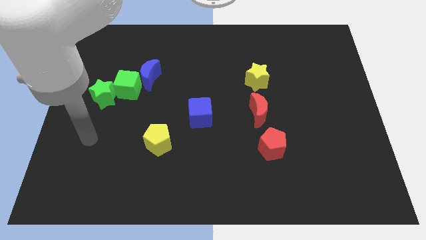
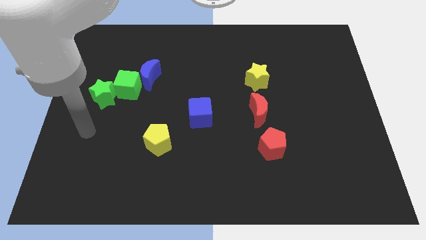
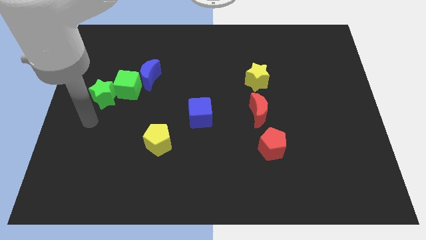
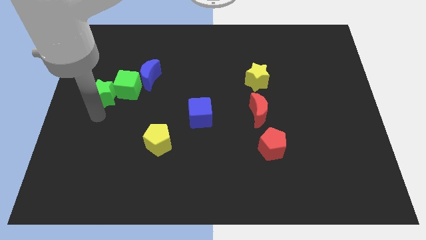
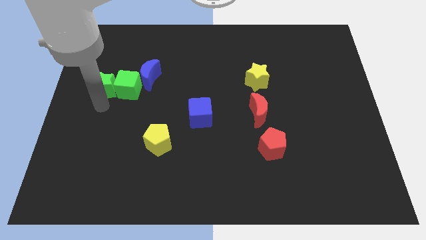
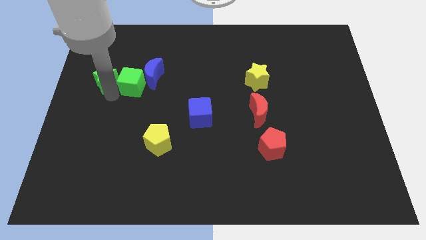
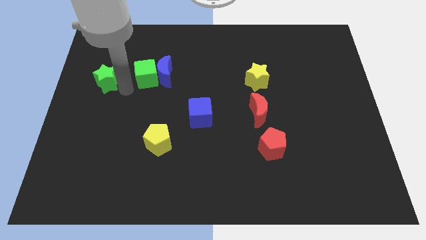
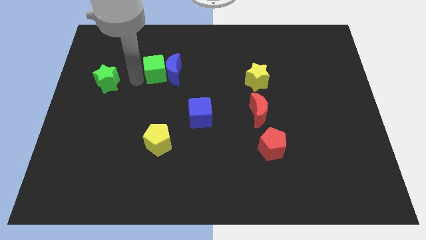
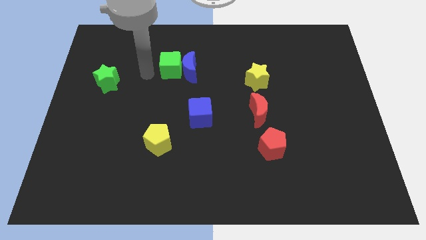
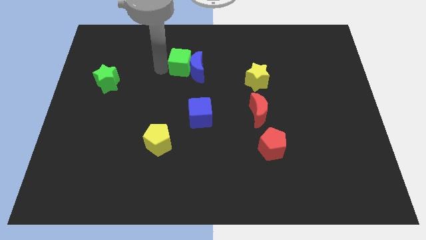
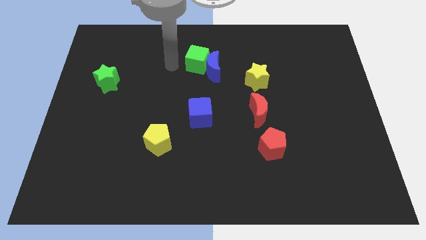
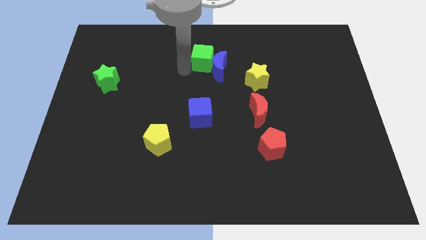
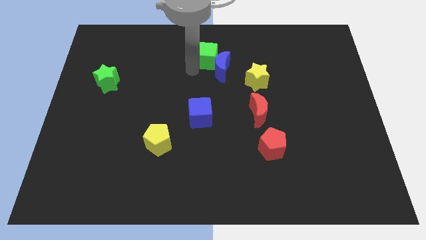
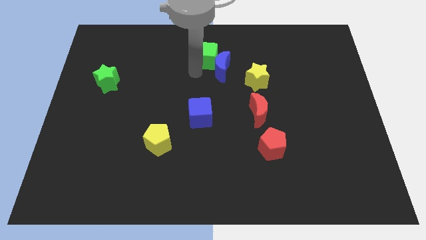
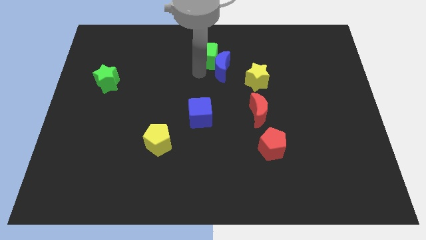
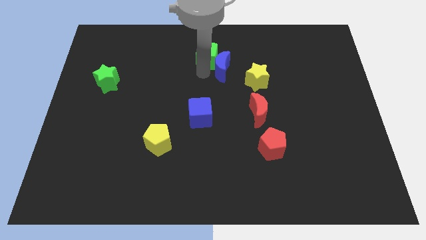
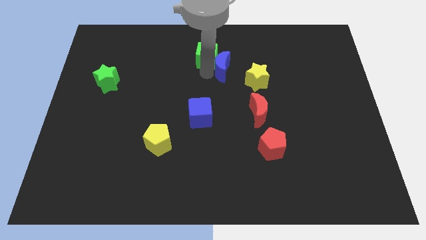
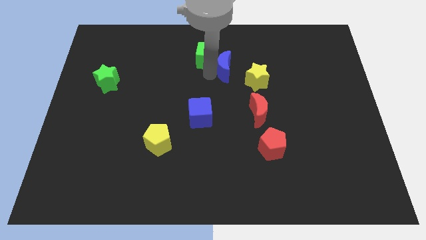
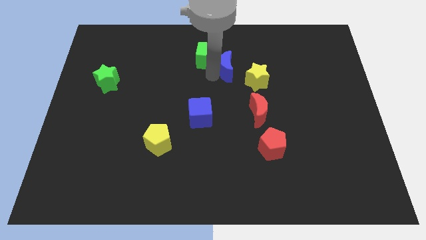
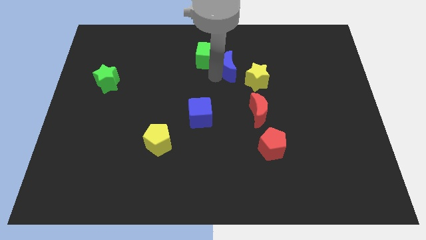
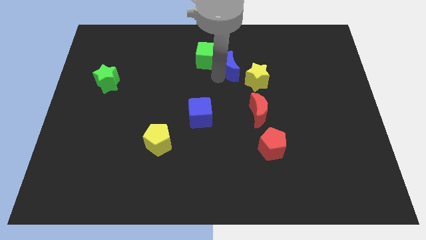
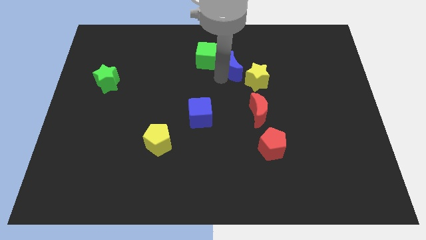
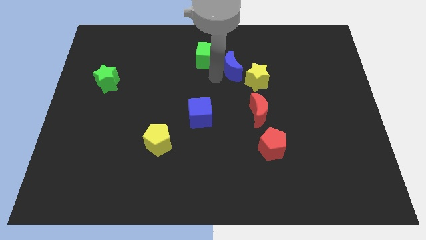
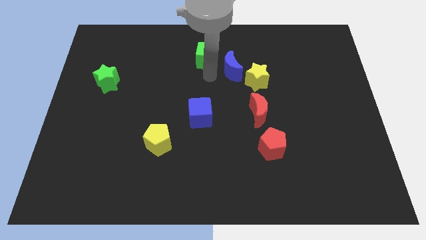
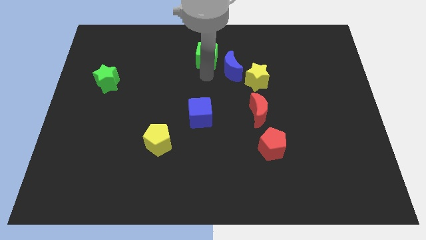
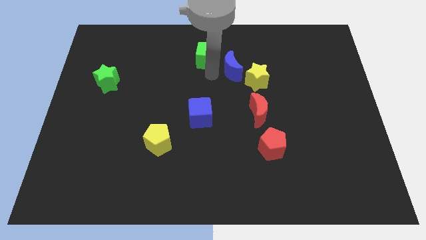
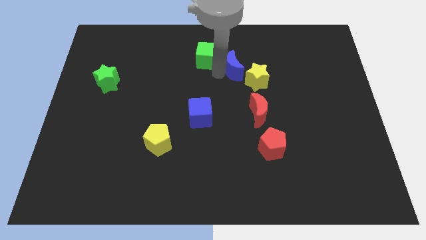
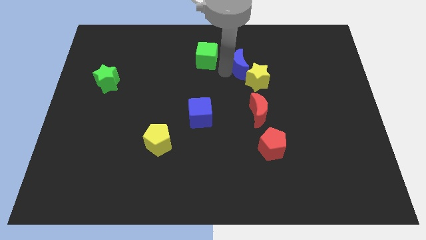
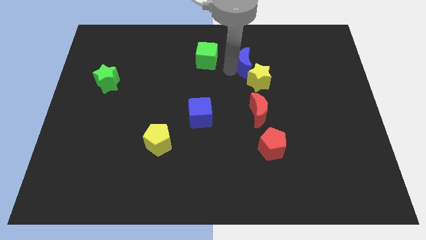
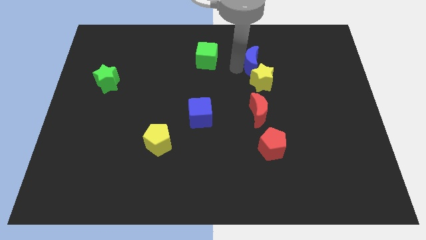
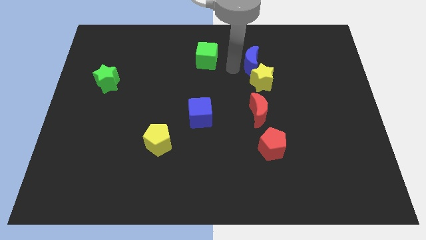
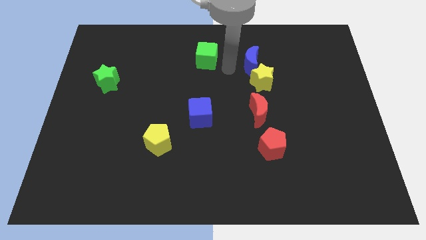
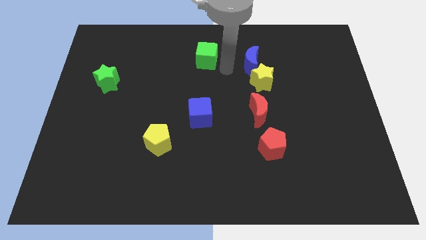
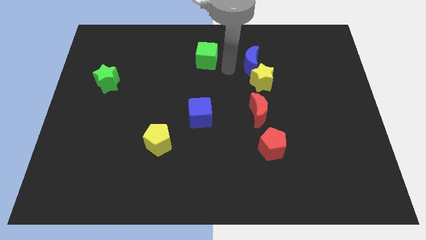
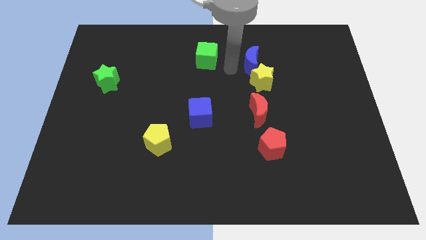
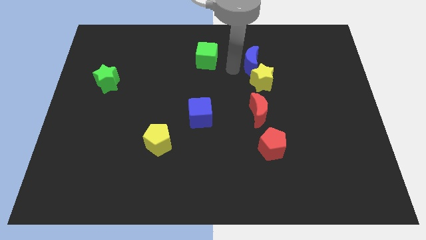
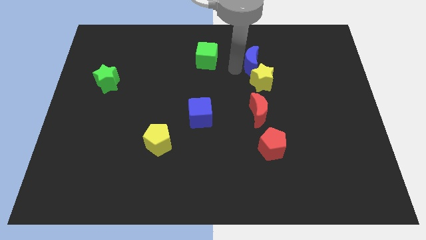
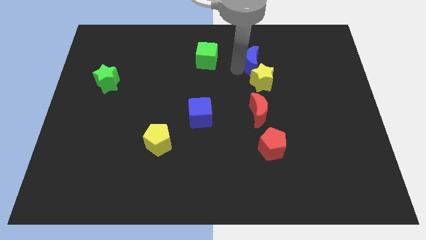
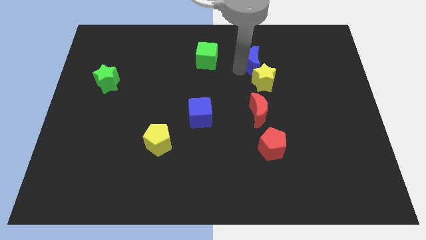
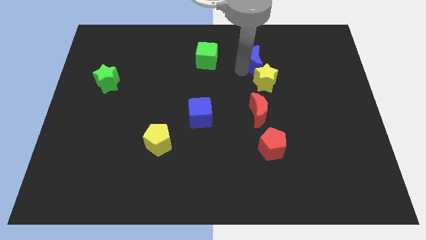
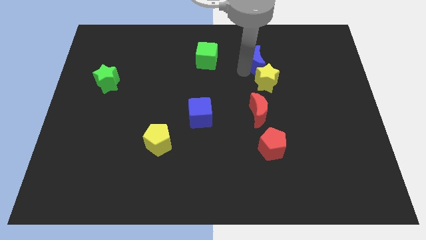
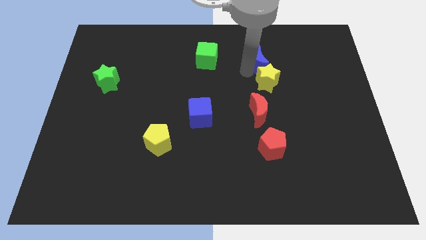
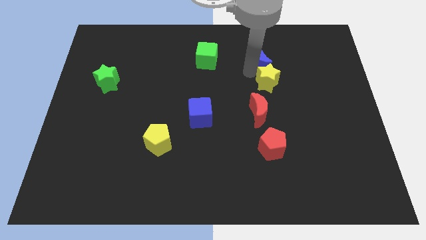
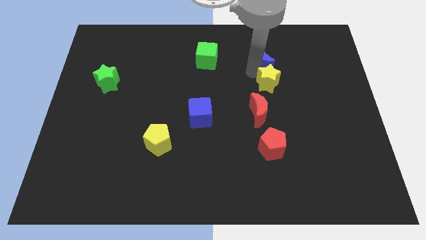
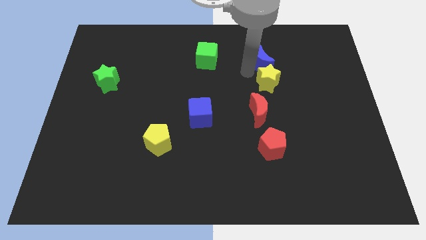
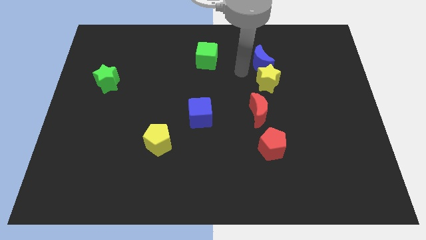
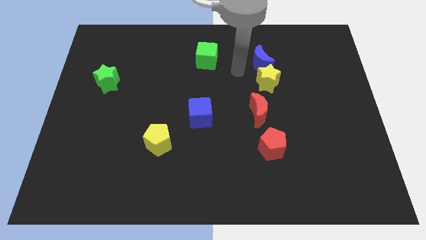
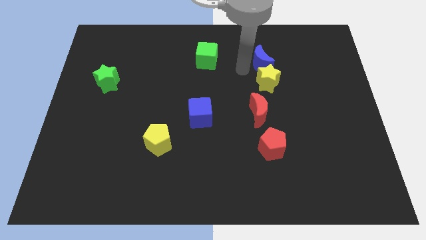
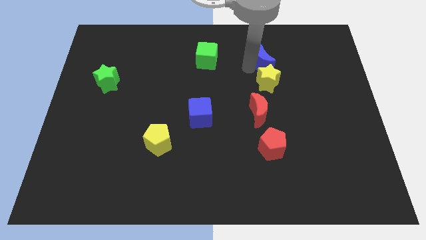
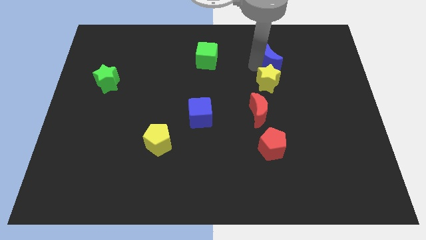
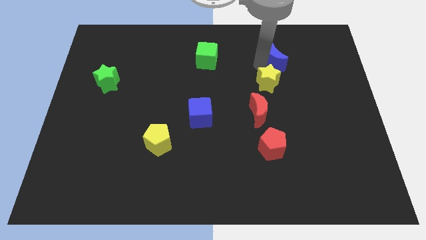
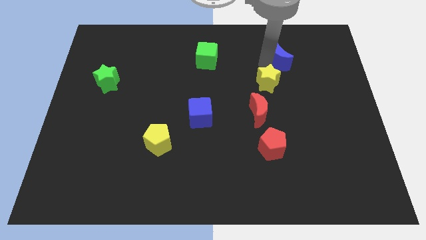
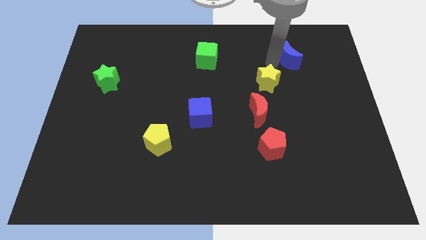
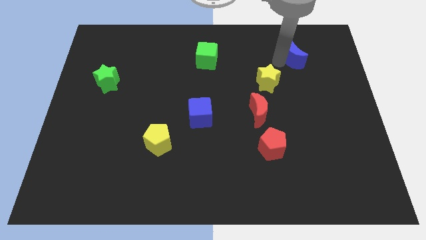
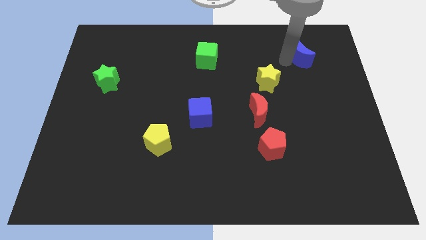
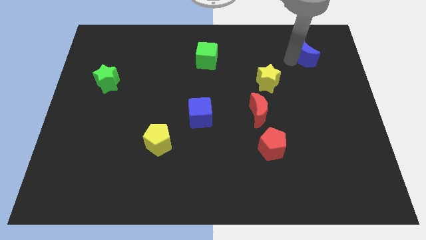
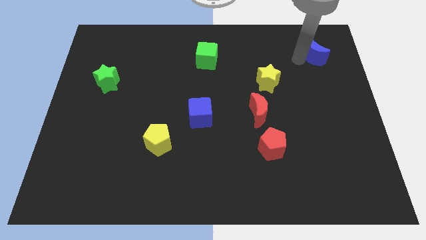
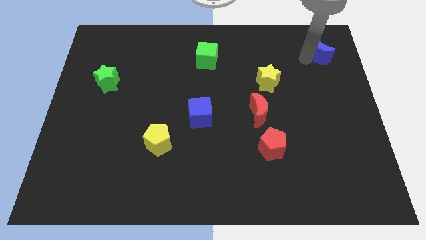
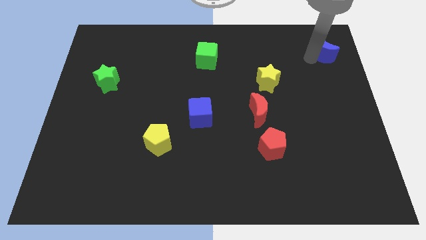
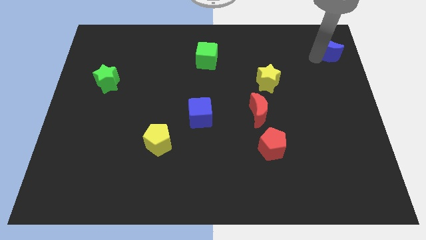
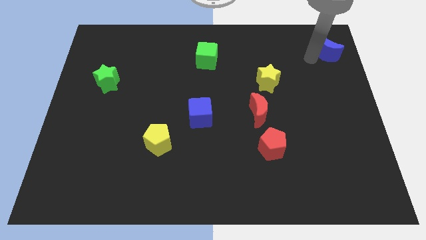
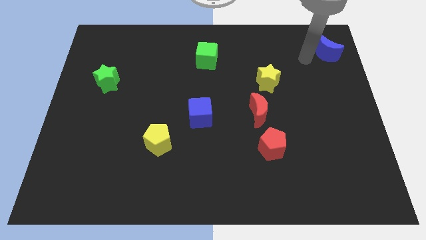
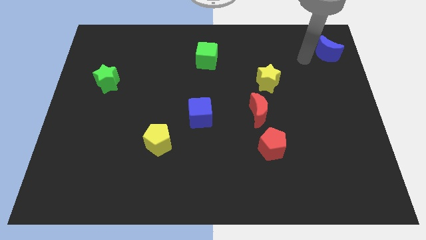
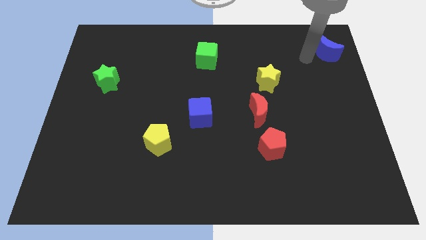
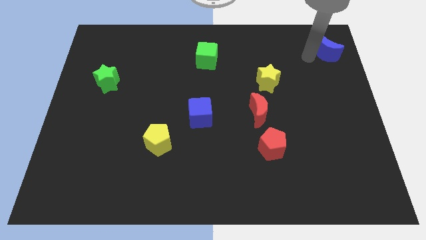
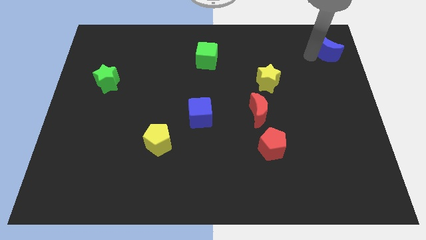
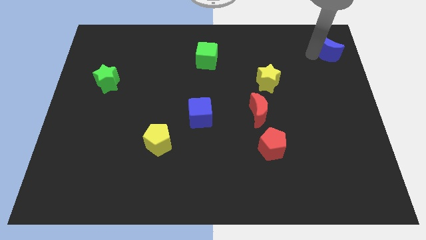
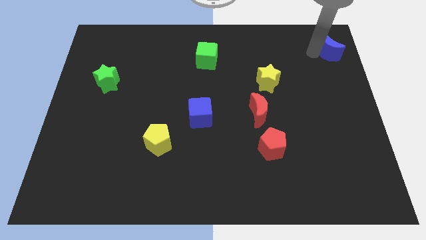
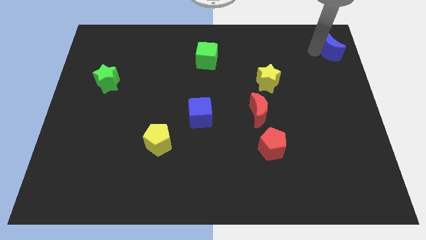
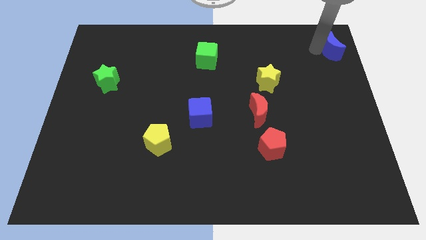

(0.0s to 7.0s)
move the blue moon to the upper right corner
